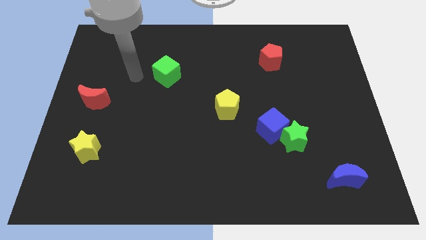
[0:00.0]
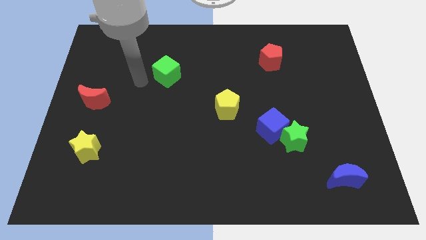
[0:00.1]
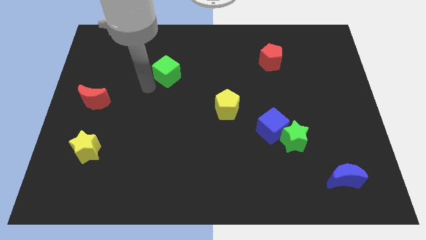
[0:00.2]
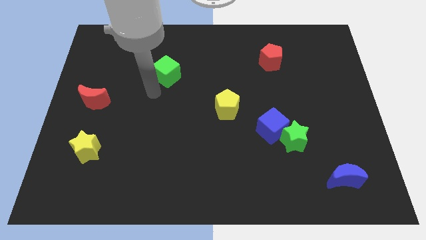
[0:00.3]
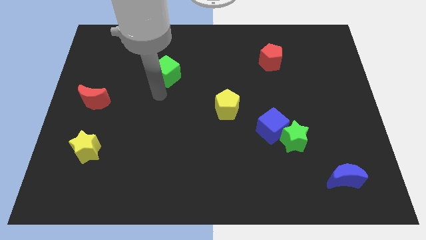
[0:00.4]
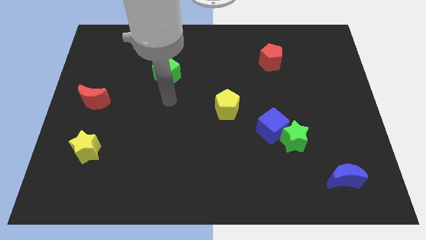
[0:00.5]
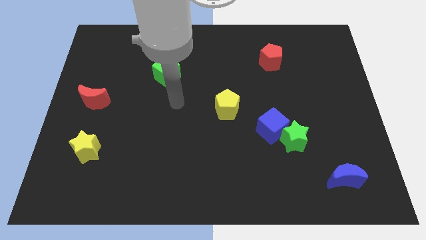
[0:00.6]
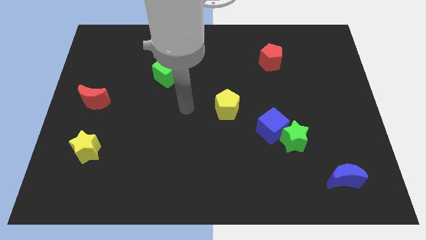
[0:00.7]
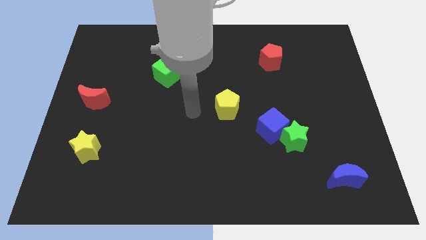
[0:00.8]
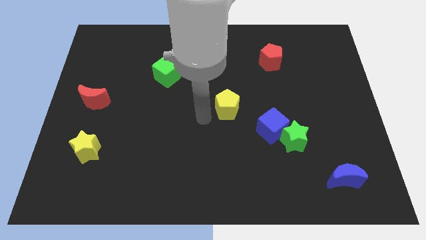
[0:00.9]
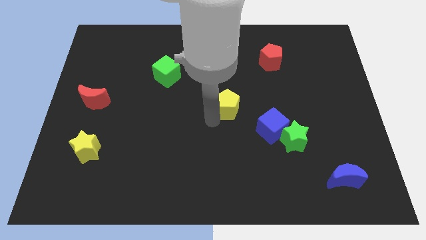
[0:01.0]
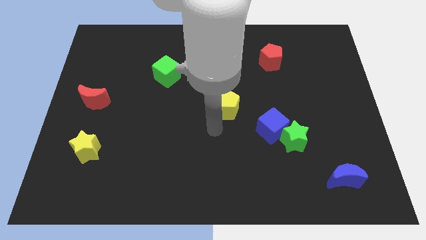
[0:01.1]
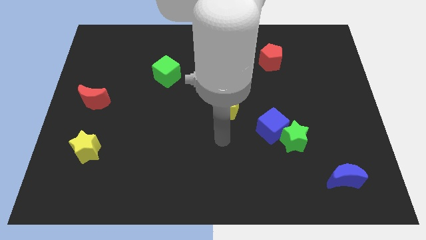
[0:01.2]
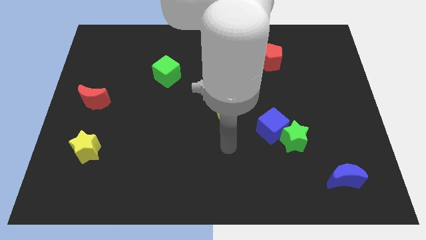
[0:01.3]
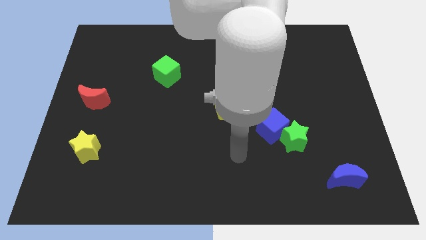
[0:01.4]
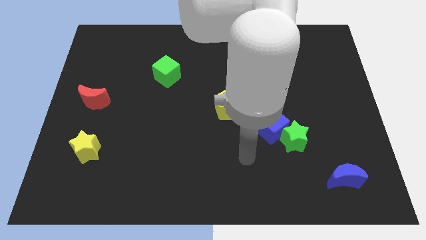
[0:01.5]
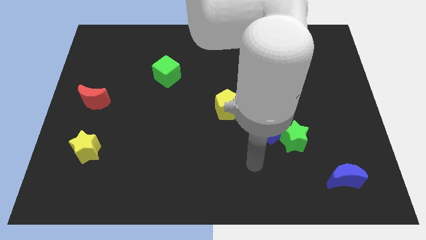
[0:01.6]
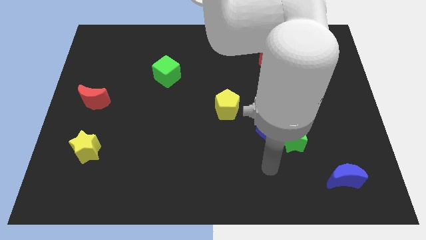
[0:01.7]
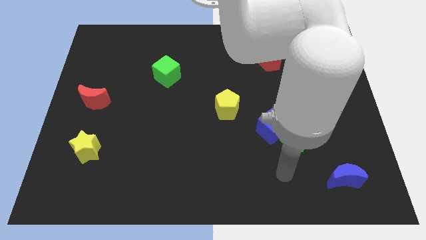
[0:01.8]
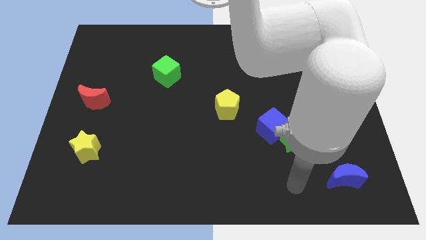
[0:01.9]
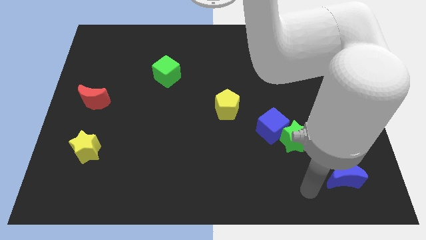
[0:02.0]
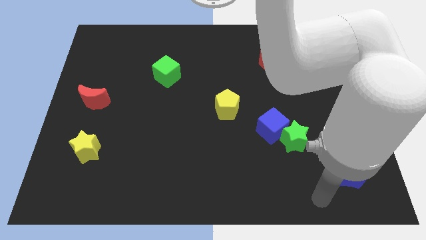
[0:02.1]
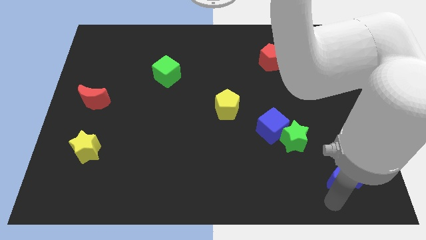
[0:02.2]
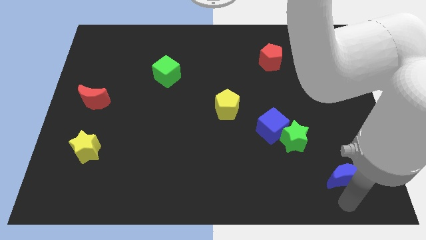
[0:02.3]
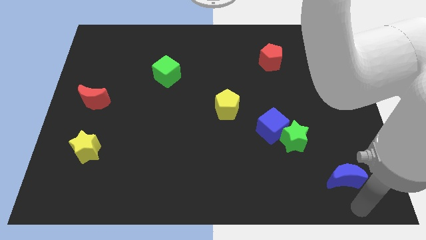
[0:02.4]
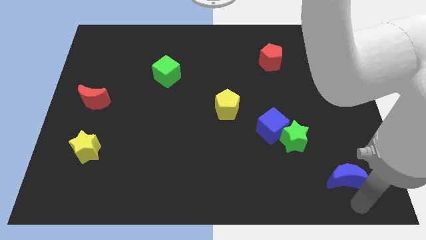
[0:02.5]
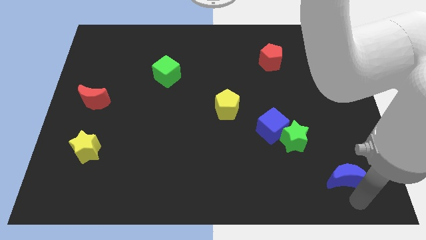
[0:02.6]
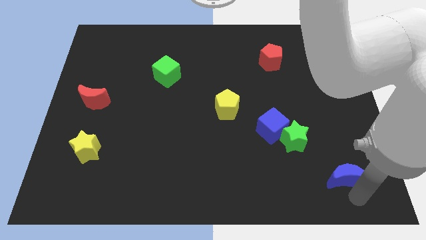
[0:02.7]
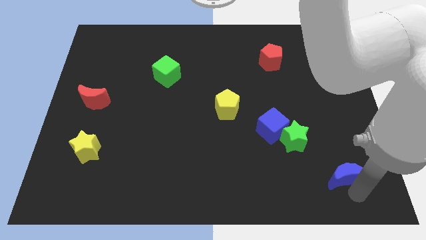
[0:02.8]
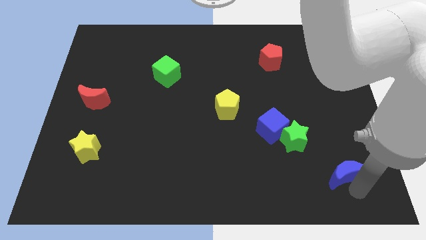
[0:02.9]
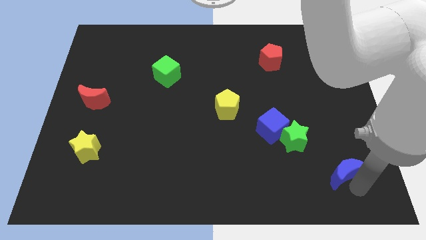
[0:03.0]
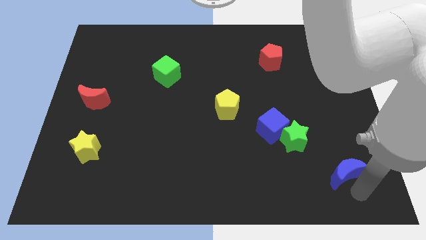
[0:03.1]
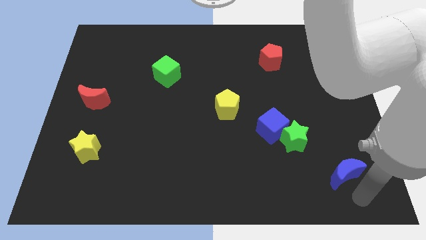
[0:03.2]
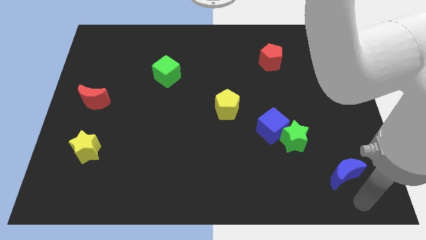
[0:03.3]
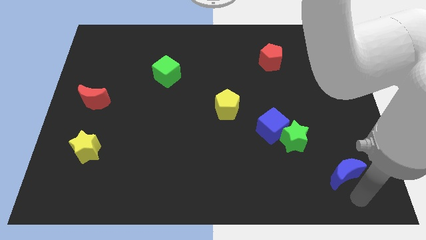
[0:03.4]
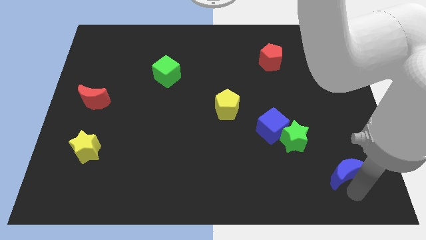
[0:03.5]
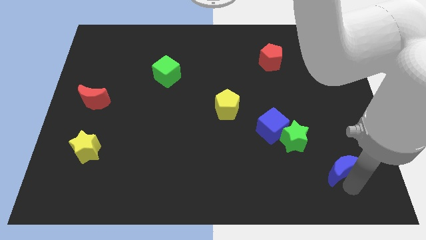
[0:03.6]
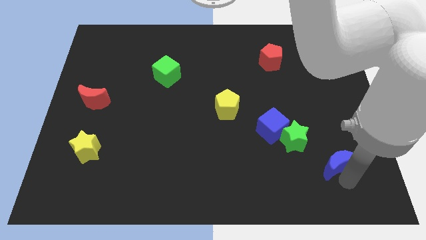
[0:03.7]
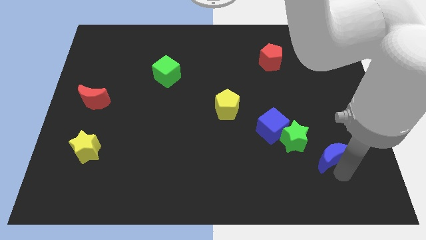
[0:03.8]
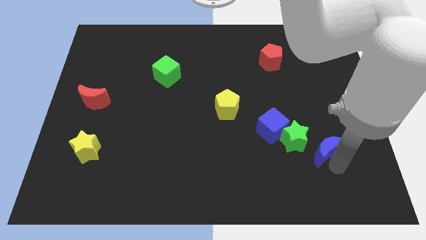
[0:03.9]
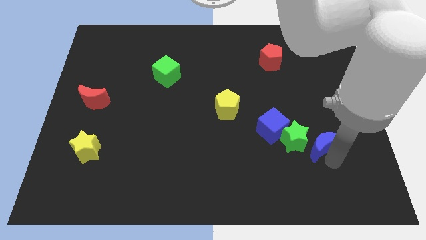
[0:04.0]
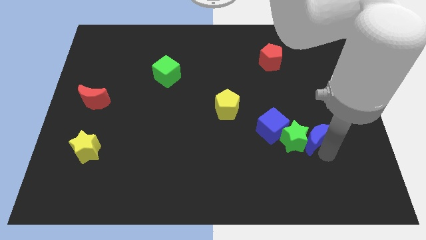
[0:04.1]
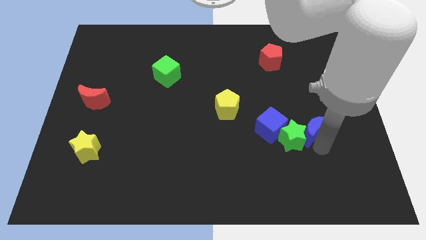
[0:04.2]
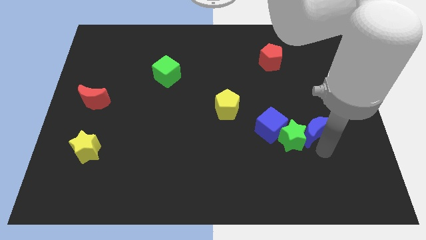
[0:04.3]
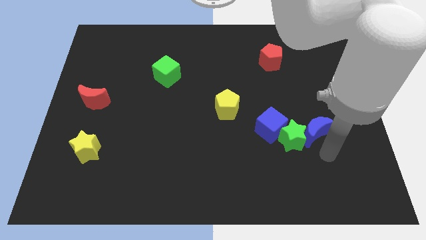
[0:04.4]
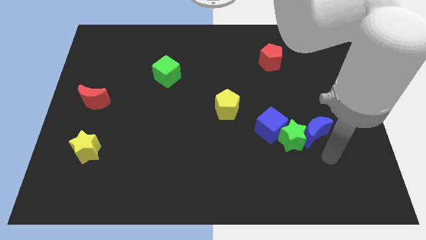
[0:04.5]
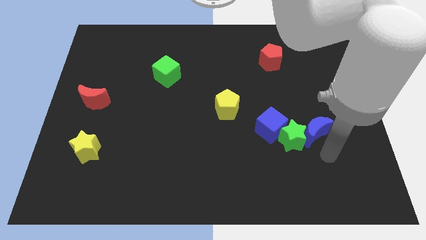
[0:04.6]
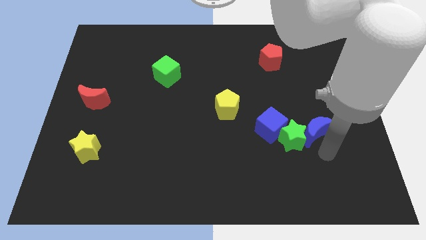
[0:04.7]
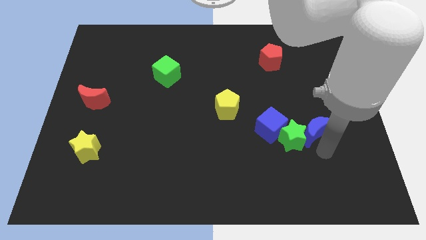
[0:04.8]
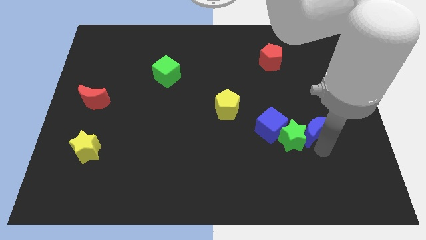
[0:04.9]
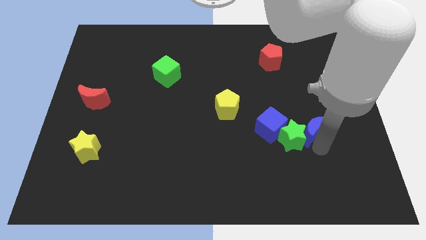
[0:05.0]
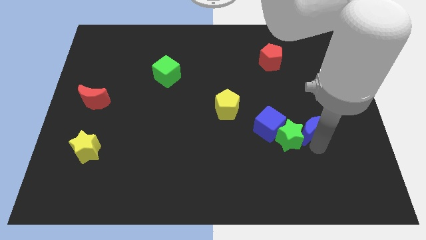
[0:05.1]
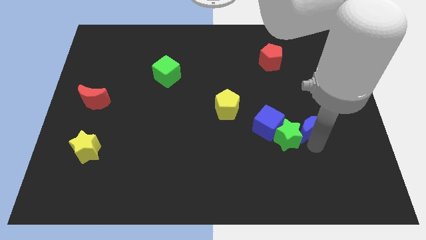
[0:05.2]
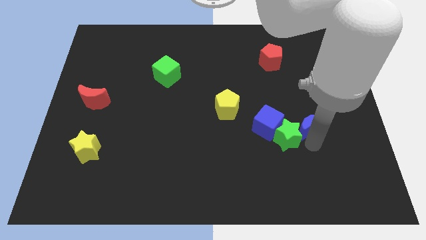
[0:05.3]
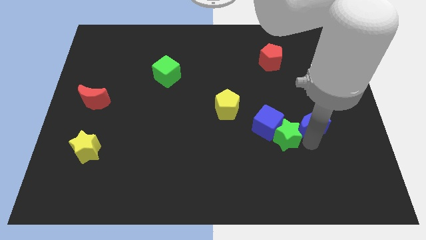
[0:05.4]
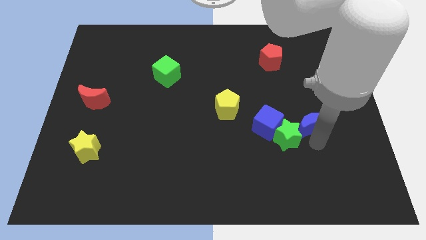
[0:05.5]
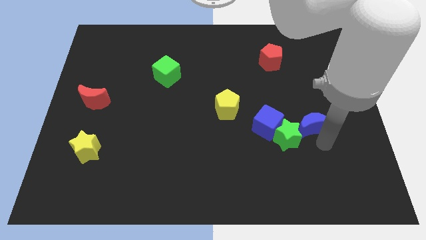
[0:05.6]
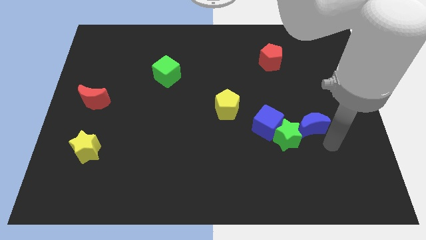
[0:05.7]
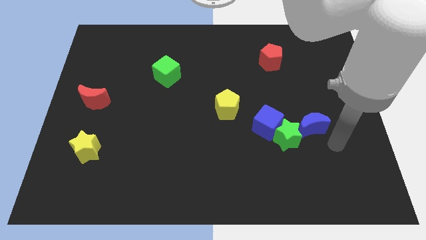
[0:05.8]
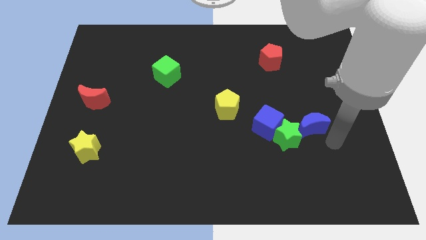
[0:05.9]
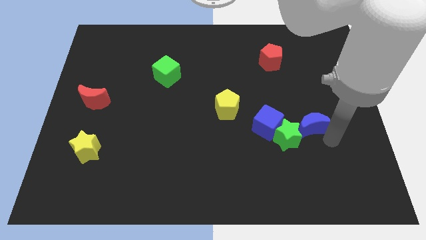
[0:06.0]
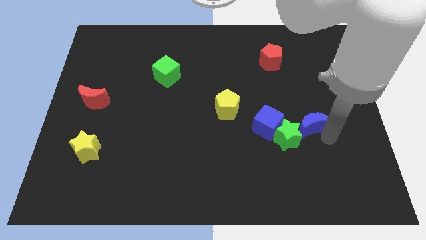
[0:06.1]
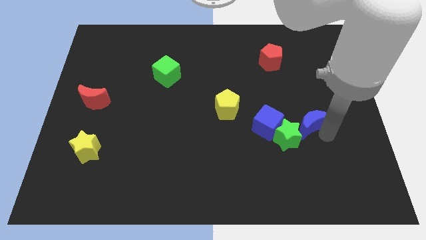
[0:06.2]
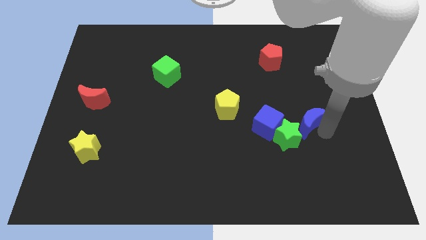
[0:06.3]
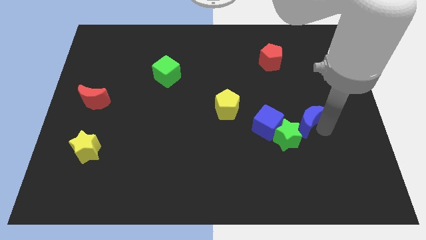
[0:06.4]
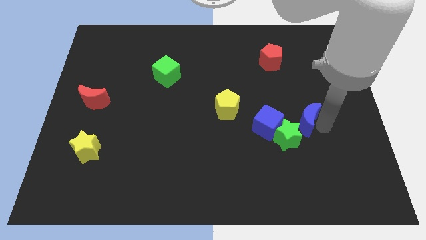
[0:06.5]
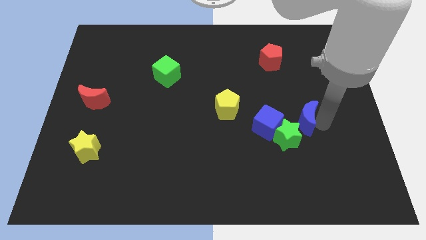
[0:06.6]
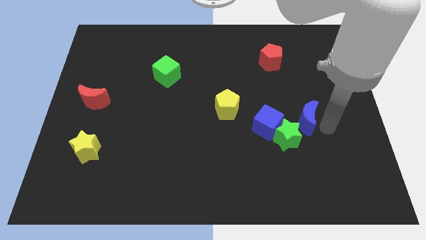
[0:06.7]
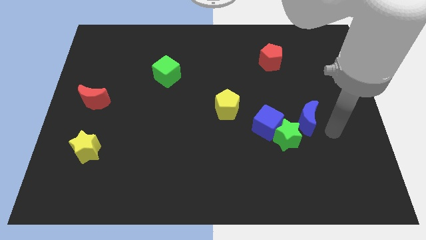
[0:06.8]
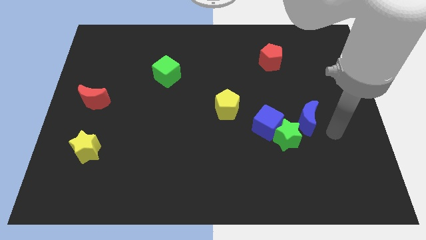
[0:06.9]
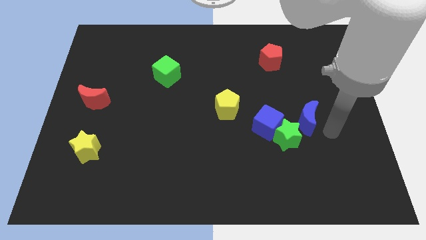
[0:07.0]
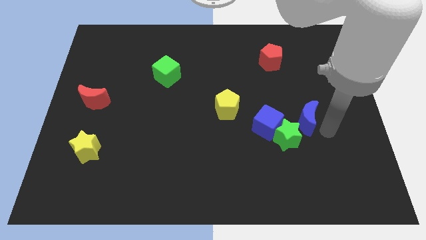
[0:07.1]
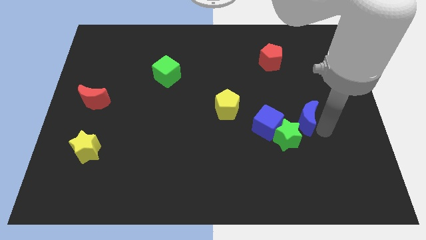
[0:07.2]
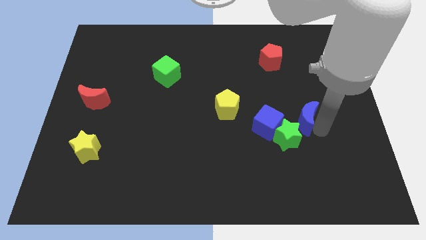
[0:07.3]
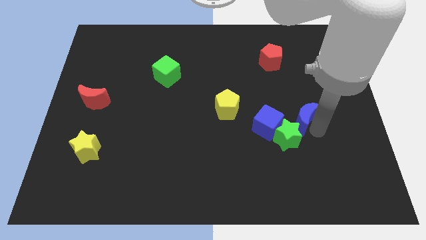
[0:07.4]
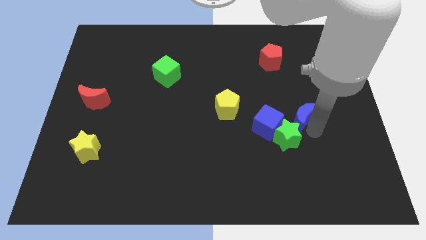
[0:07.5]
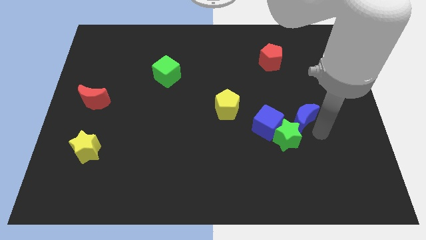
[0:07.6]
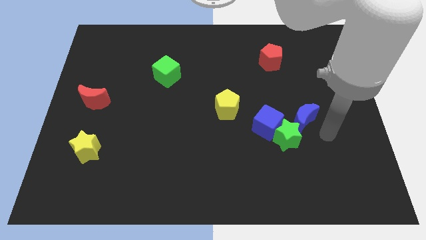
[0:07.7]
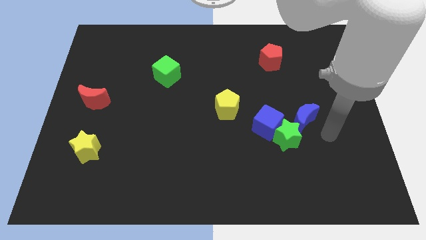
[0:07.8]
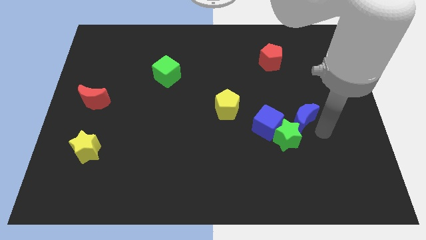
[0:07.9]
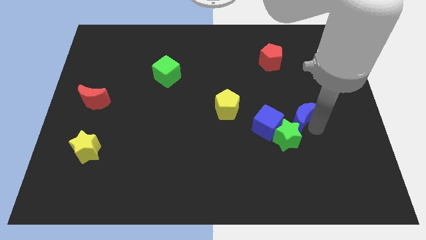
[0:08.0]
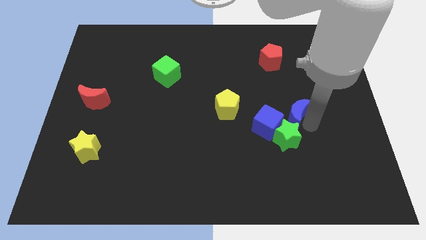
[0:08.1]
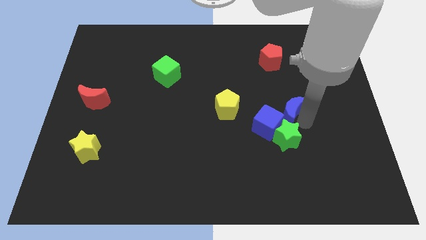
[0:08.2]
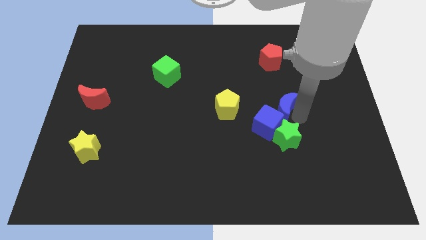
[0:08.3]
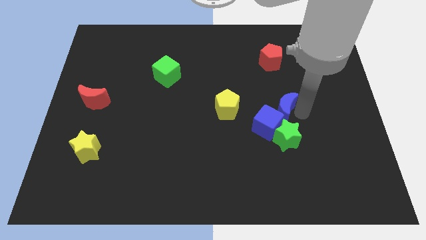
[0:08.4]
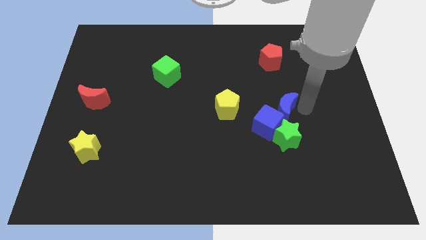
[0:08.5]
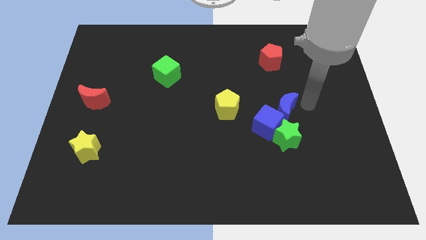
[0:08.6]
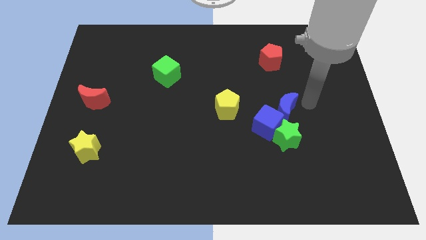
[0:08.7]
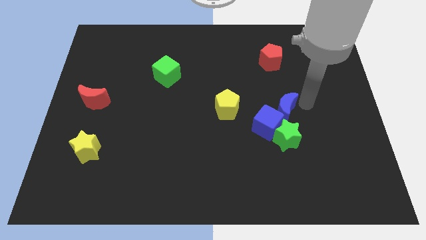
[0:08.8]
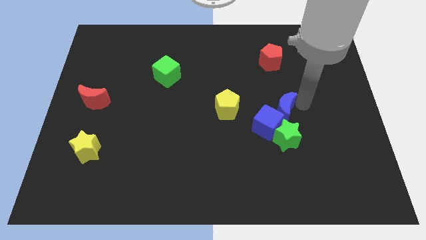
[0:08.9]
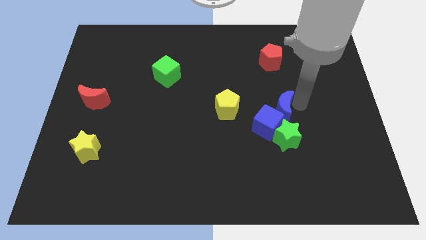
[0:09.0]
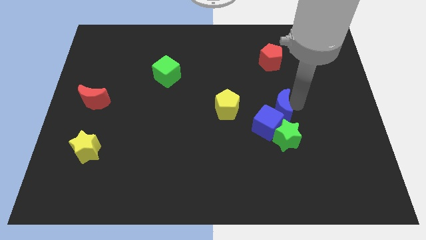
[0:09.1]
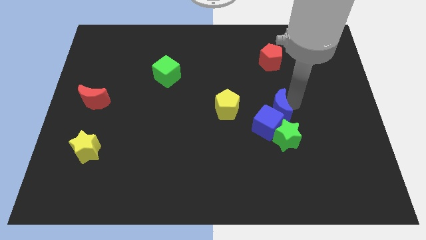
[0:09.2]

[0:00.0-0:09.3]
slide the blue moon to the top left of the green star
